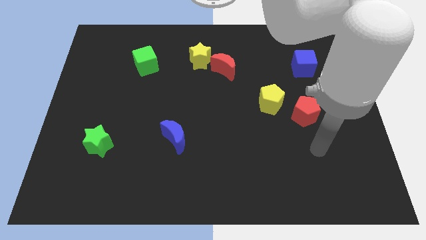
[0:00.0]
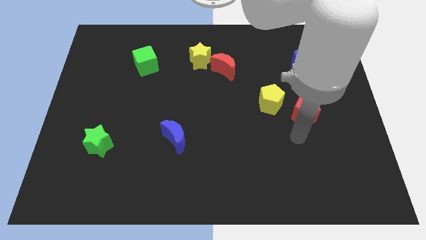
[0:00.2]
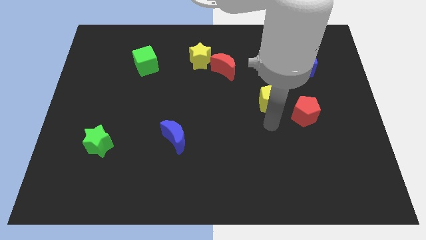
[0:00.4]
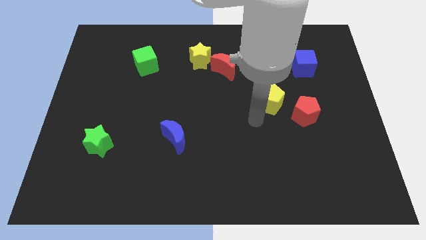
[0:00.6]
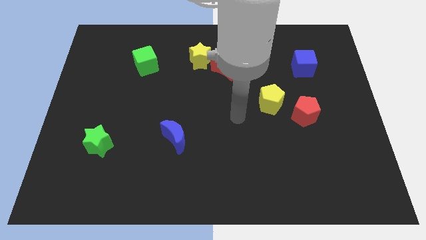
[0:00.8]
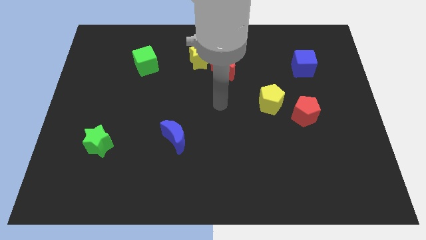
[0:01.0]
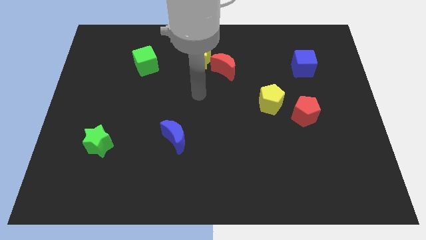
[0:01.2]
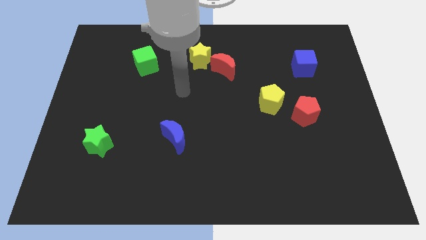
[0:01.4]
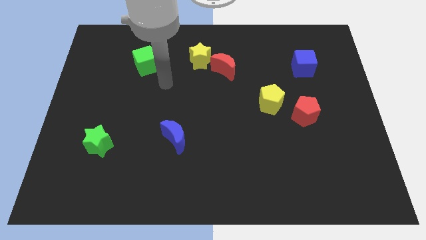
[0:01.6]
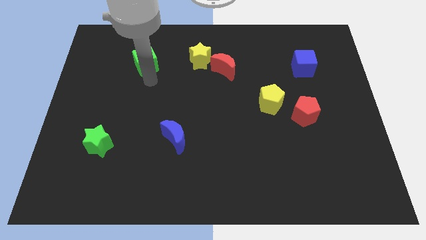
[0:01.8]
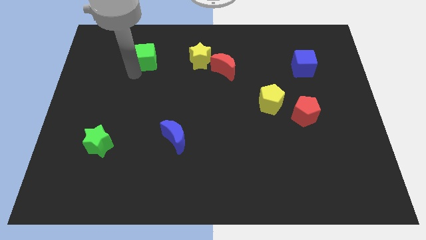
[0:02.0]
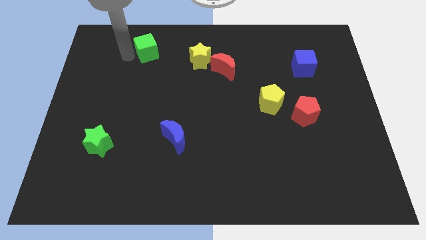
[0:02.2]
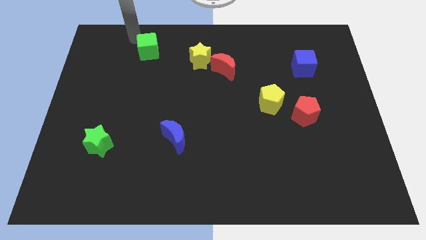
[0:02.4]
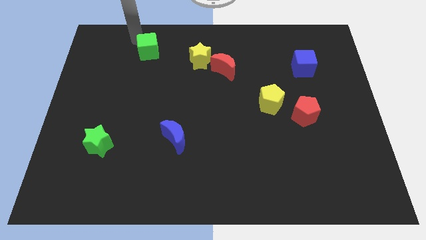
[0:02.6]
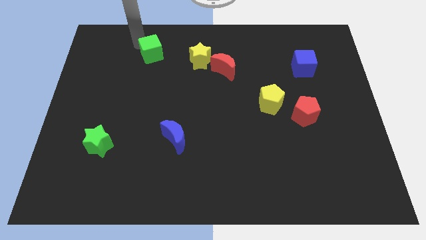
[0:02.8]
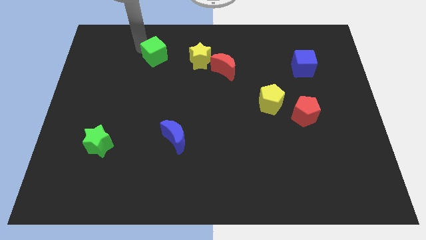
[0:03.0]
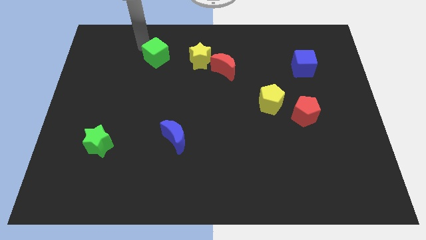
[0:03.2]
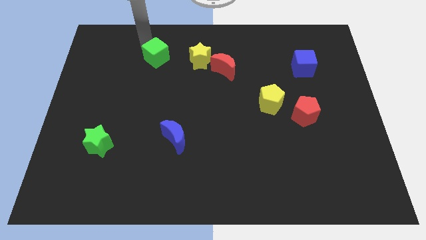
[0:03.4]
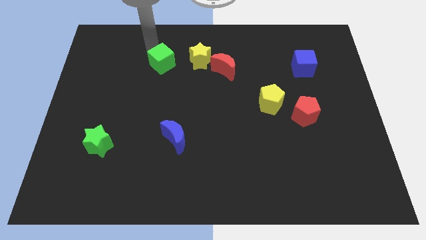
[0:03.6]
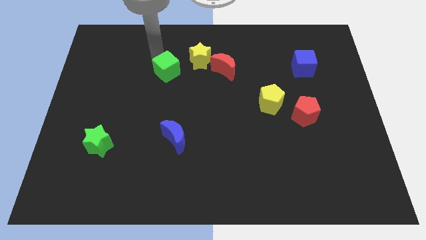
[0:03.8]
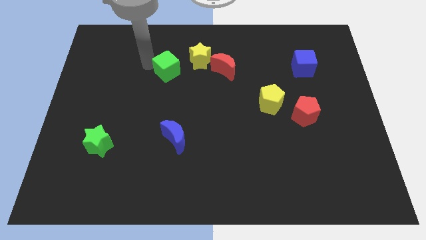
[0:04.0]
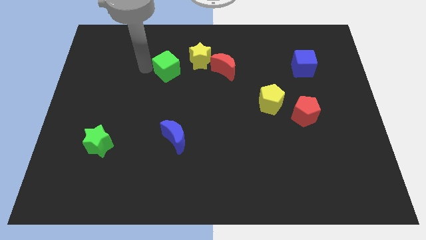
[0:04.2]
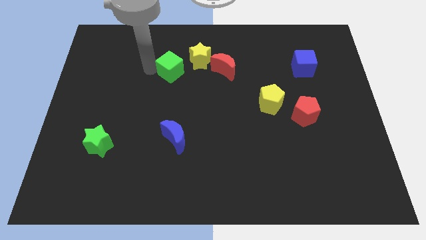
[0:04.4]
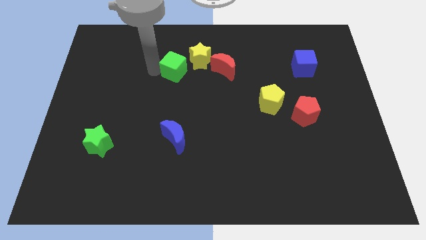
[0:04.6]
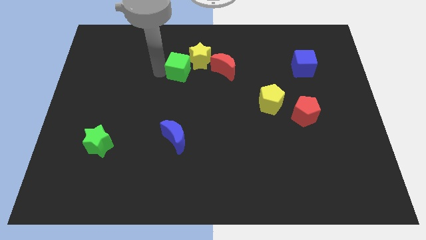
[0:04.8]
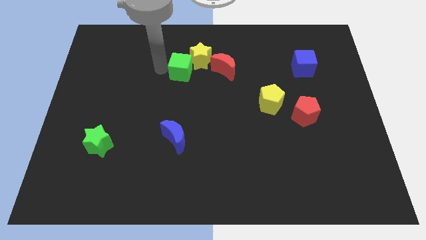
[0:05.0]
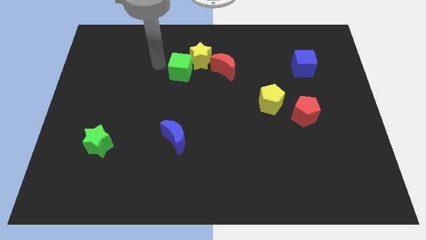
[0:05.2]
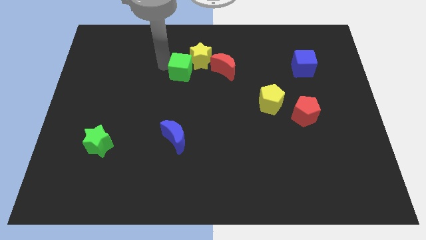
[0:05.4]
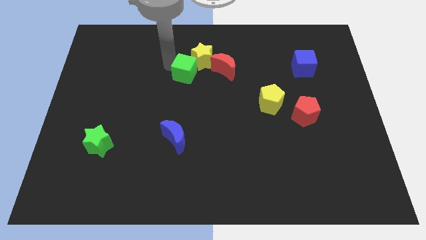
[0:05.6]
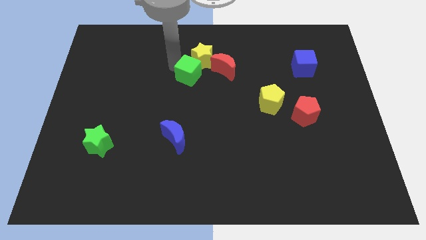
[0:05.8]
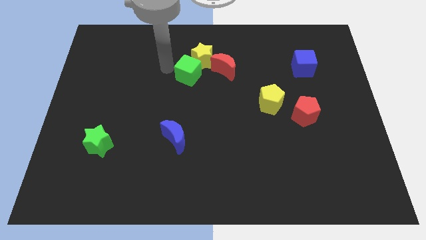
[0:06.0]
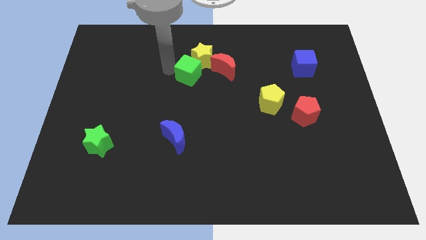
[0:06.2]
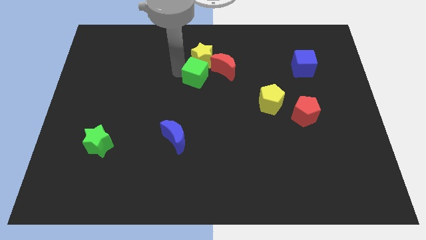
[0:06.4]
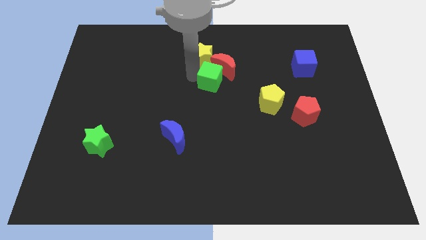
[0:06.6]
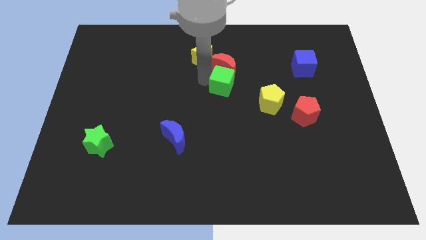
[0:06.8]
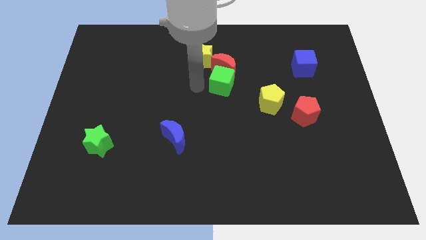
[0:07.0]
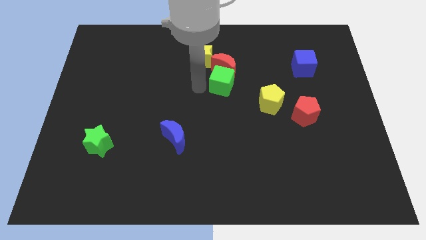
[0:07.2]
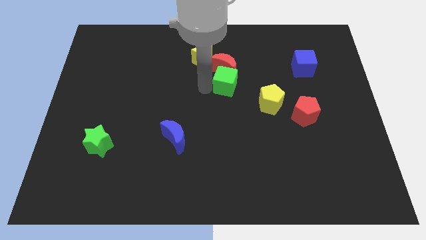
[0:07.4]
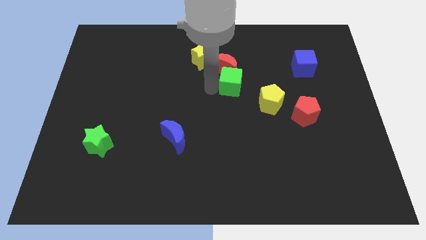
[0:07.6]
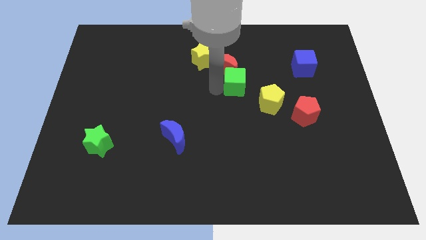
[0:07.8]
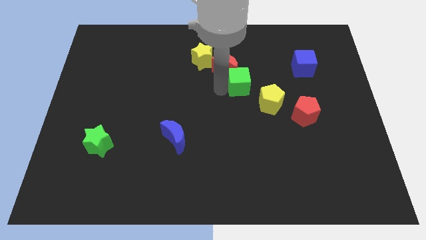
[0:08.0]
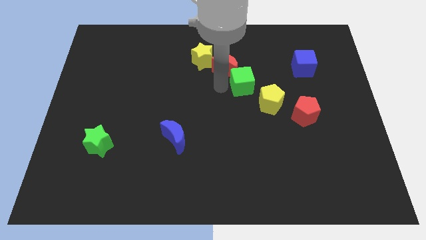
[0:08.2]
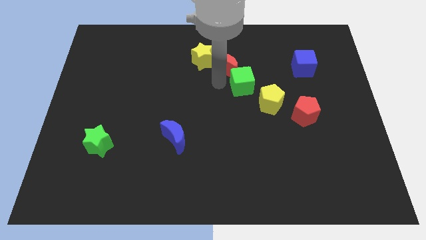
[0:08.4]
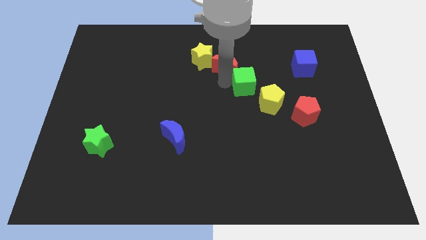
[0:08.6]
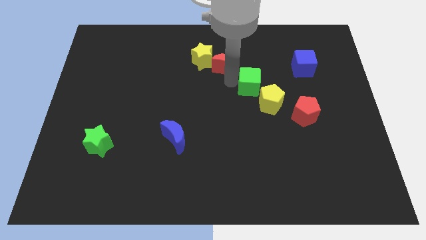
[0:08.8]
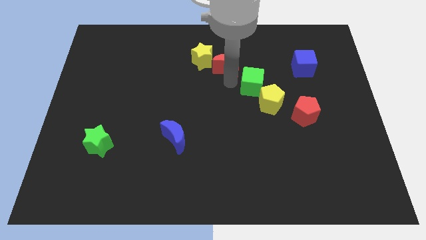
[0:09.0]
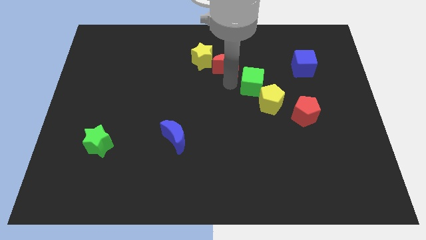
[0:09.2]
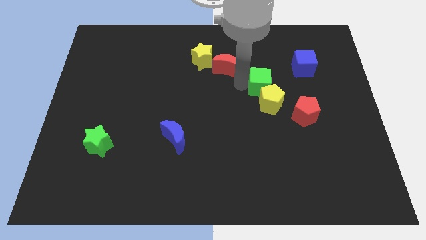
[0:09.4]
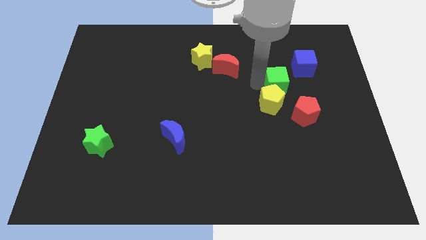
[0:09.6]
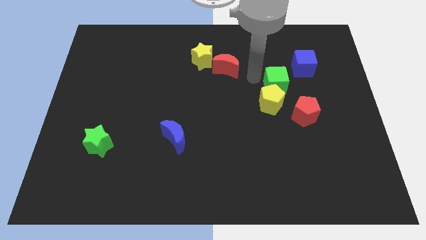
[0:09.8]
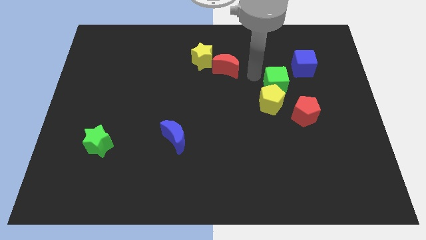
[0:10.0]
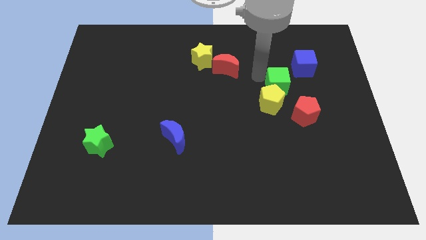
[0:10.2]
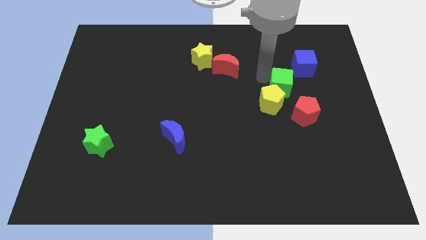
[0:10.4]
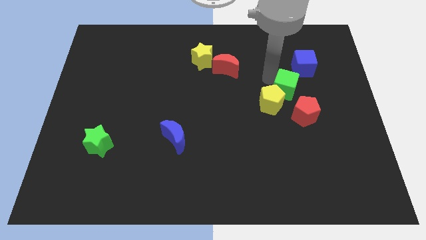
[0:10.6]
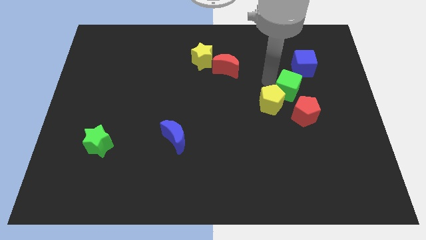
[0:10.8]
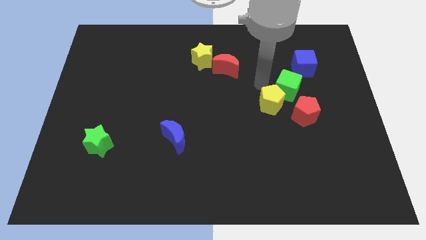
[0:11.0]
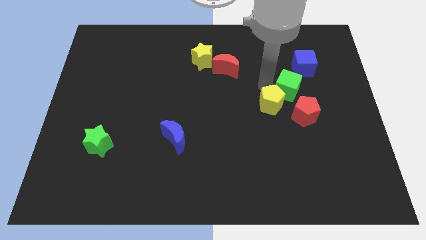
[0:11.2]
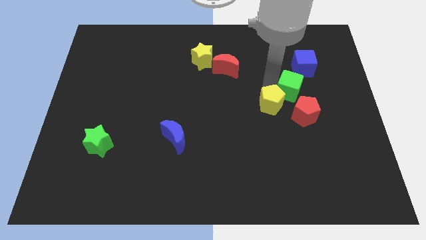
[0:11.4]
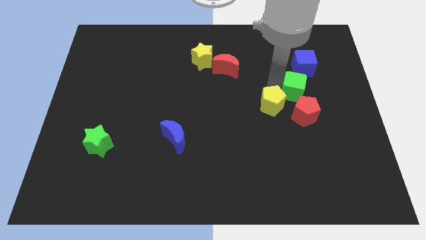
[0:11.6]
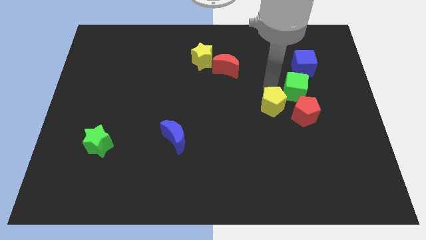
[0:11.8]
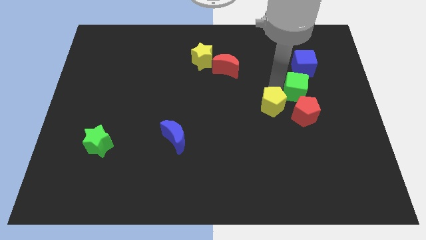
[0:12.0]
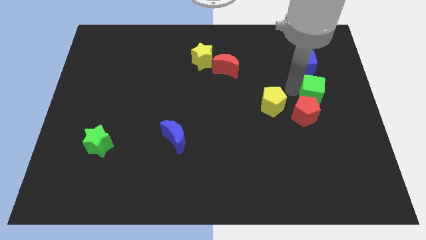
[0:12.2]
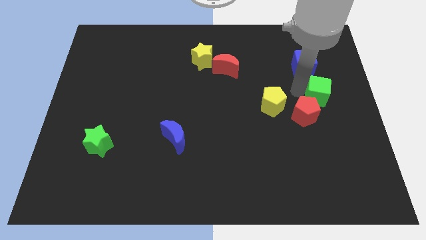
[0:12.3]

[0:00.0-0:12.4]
put the green cube to the right side of the board

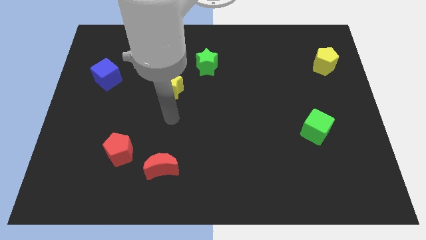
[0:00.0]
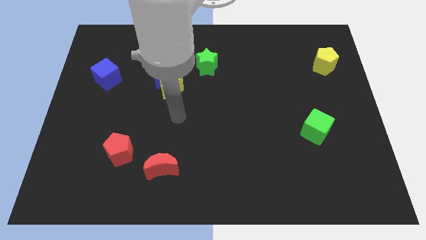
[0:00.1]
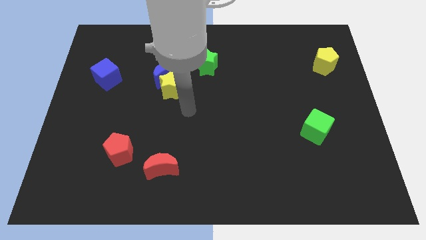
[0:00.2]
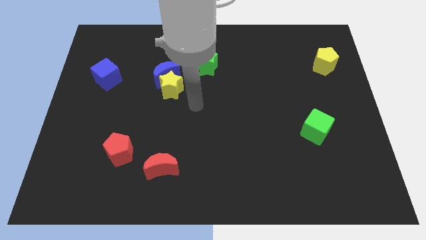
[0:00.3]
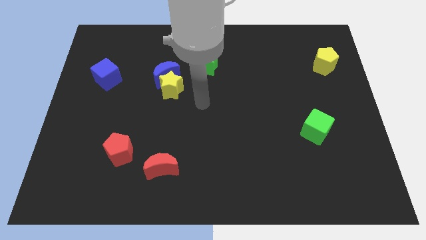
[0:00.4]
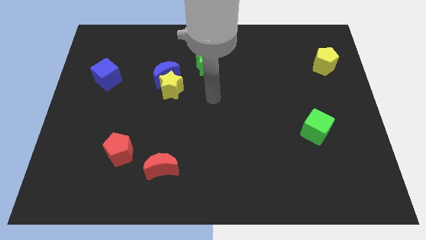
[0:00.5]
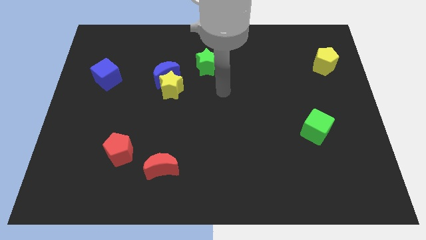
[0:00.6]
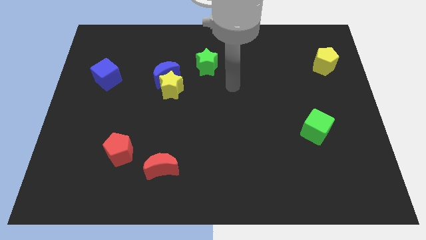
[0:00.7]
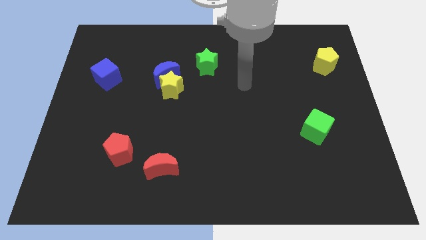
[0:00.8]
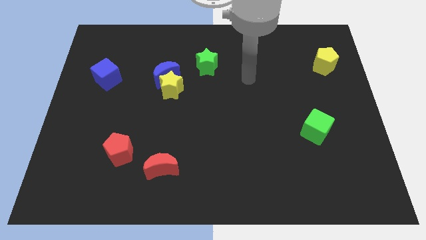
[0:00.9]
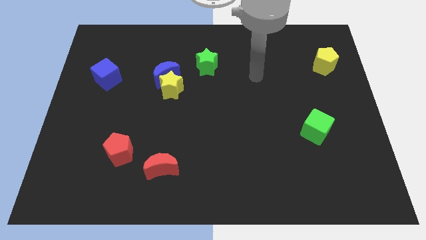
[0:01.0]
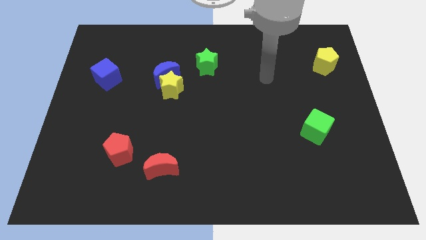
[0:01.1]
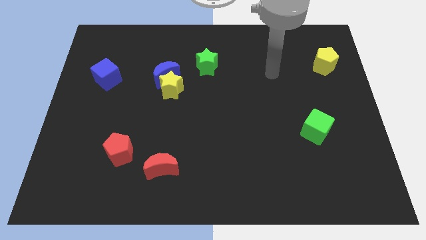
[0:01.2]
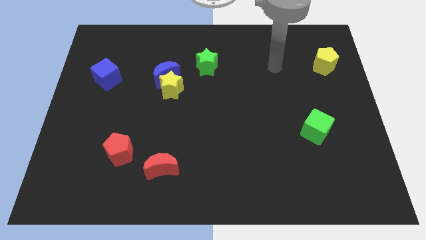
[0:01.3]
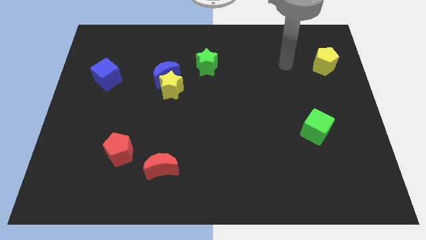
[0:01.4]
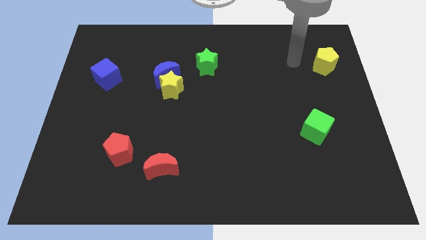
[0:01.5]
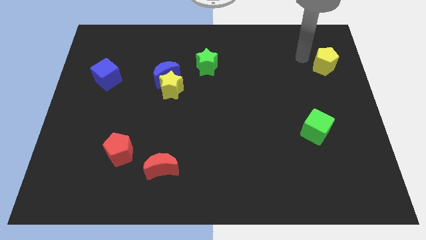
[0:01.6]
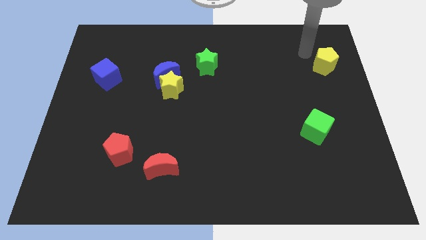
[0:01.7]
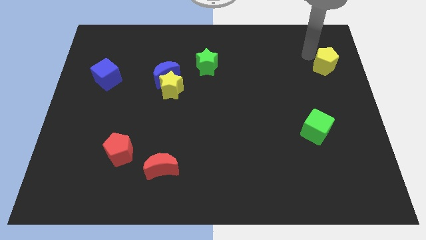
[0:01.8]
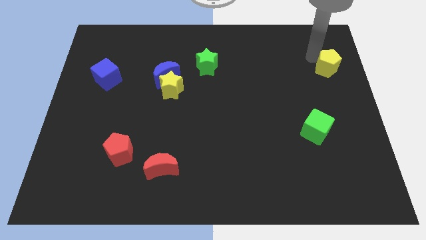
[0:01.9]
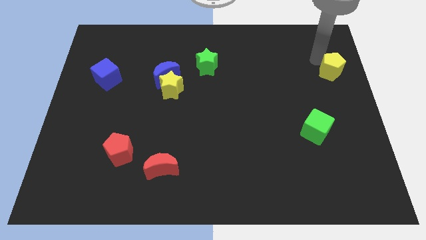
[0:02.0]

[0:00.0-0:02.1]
put the yellow pentagon to the center right
